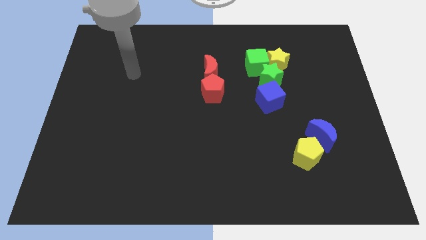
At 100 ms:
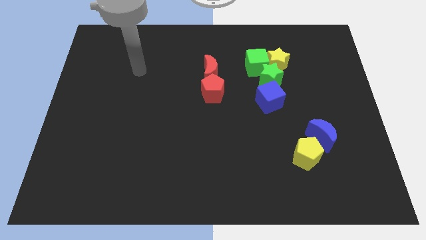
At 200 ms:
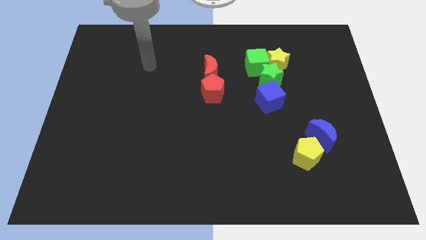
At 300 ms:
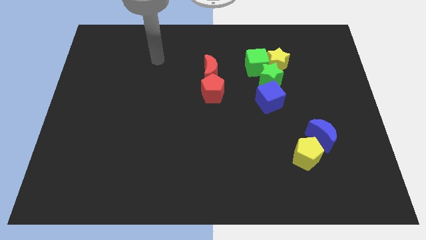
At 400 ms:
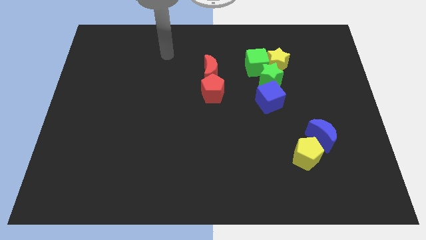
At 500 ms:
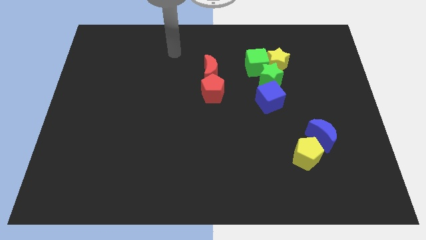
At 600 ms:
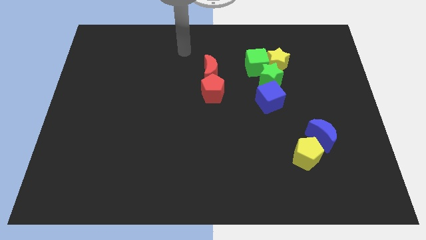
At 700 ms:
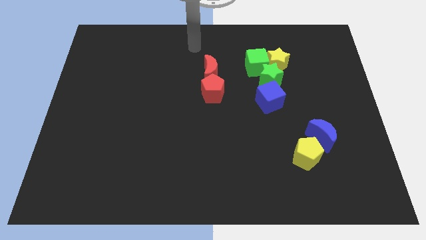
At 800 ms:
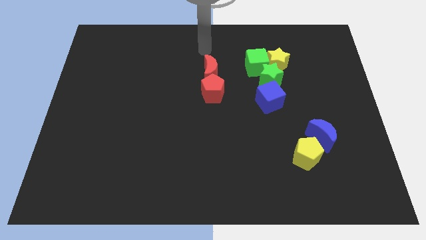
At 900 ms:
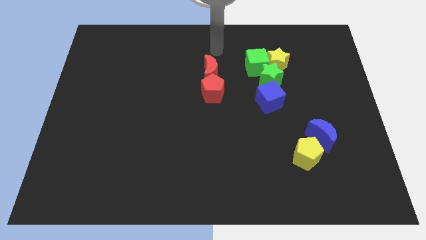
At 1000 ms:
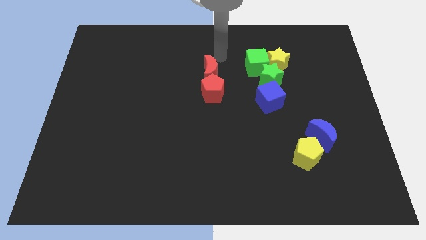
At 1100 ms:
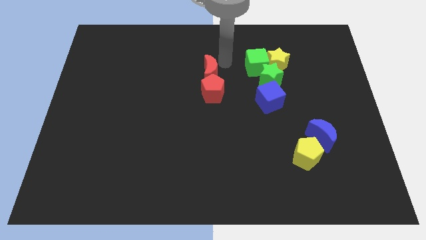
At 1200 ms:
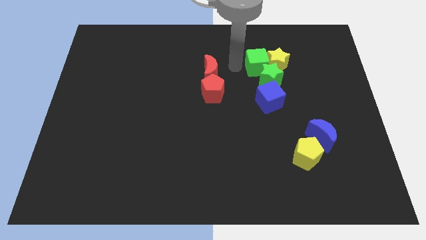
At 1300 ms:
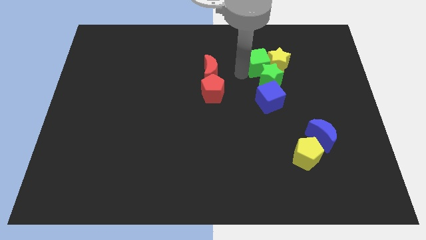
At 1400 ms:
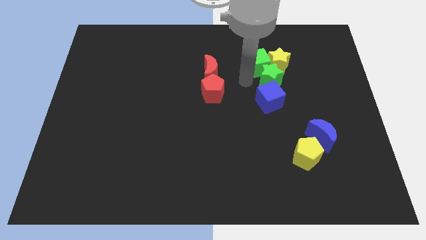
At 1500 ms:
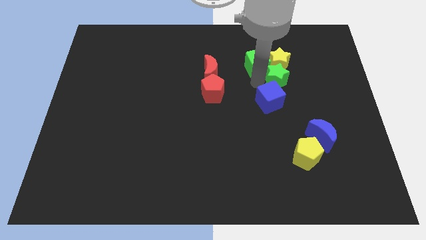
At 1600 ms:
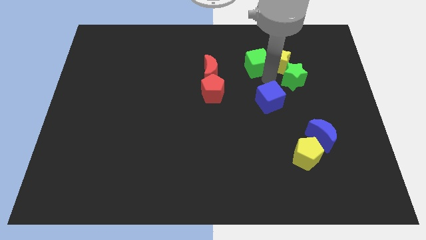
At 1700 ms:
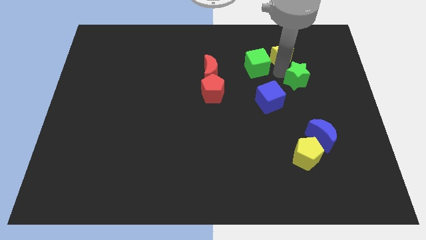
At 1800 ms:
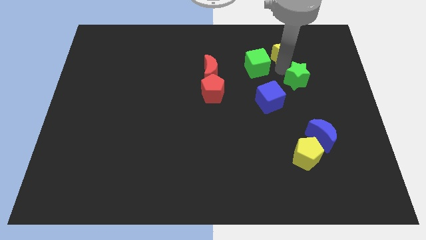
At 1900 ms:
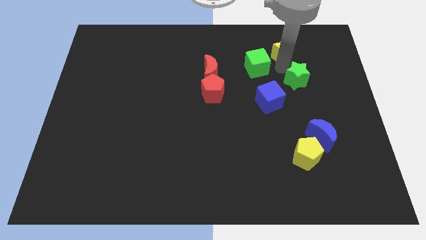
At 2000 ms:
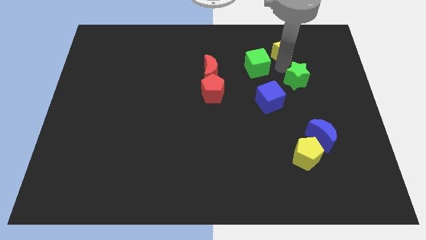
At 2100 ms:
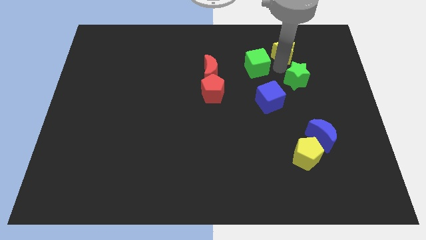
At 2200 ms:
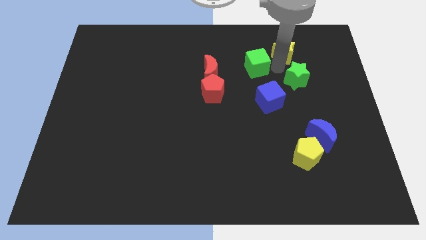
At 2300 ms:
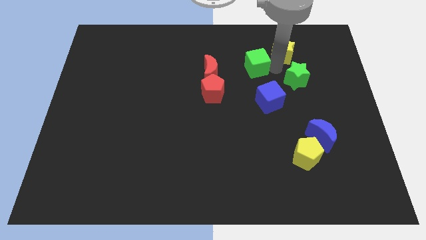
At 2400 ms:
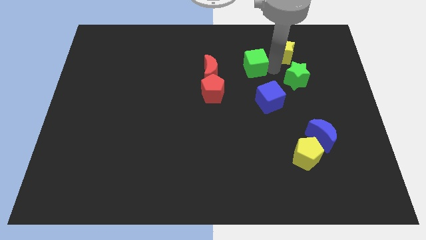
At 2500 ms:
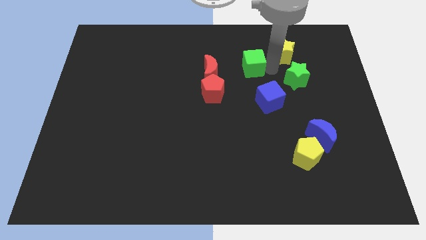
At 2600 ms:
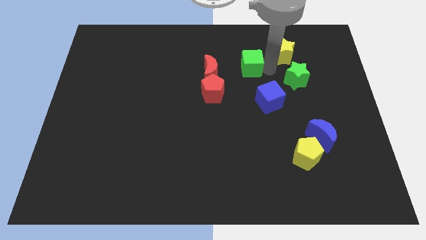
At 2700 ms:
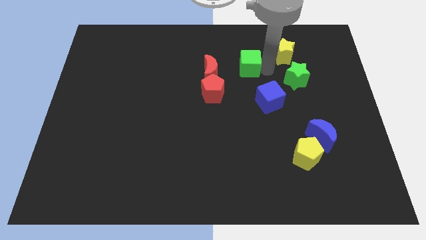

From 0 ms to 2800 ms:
pull the green cube apart from the yellow star and green star

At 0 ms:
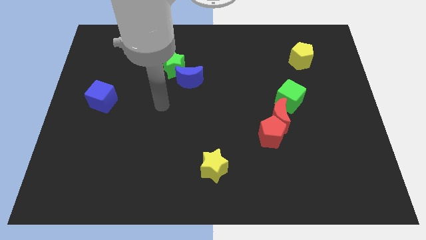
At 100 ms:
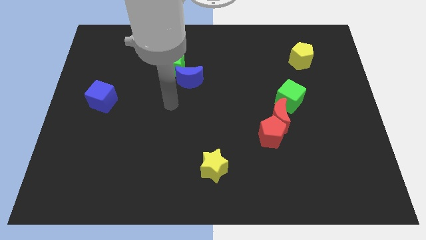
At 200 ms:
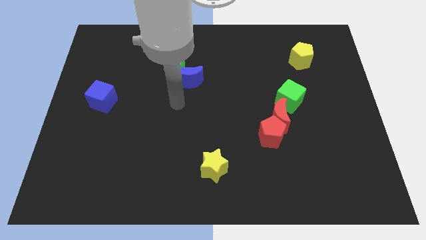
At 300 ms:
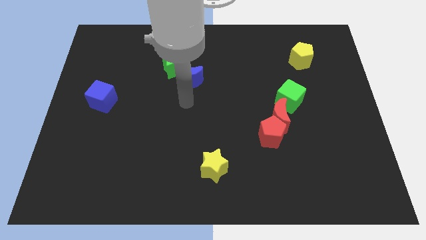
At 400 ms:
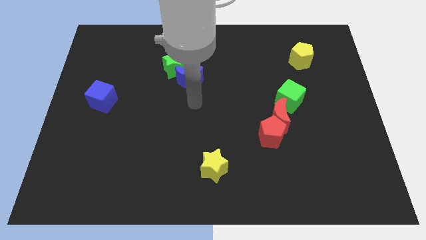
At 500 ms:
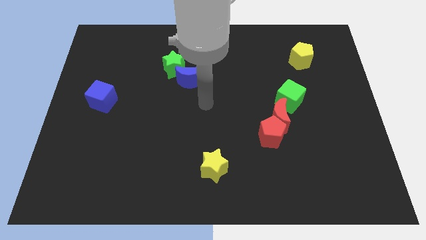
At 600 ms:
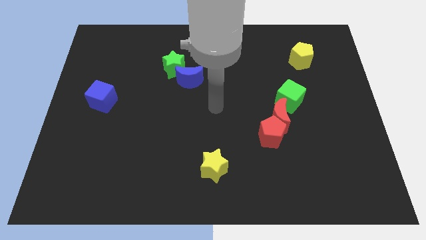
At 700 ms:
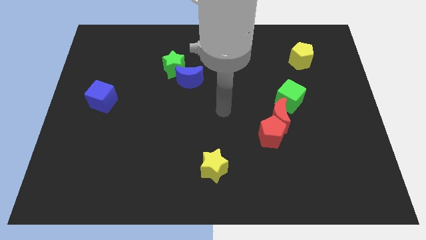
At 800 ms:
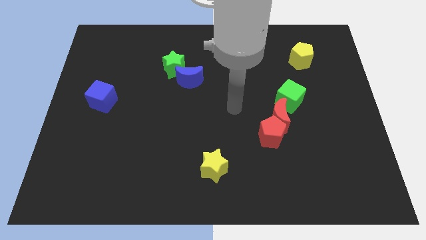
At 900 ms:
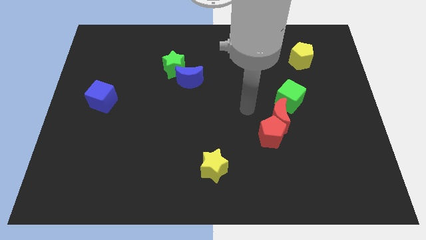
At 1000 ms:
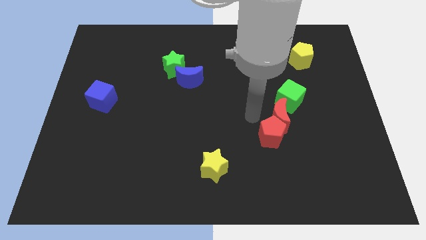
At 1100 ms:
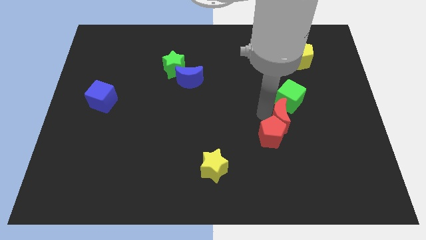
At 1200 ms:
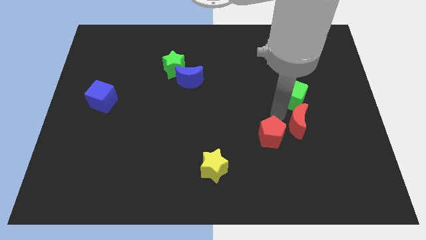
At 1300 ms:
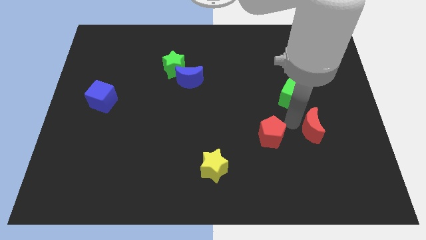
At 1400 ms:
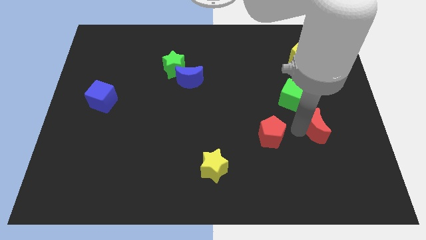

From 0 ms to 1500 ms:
move the red pentagon away from the red moon

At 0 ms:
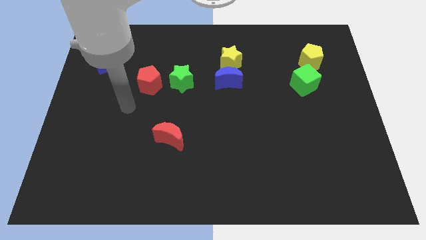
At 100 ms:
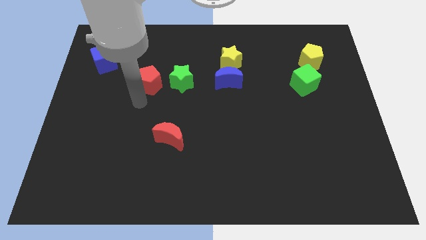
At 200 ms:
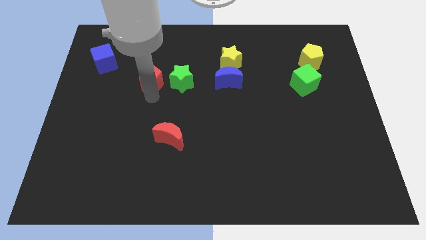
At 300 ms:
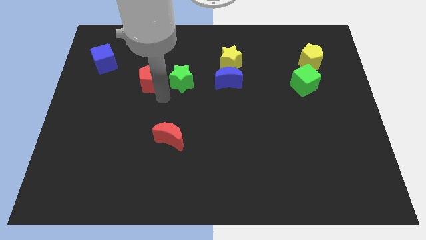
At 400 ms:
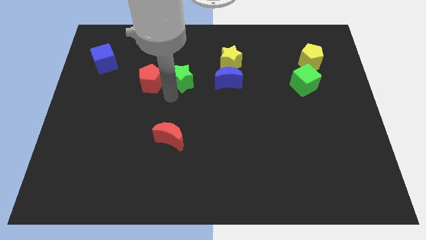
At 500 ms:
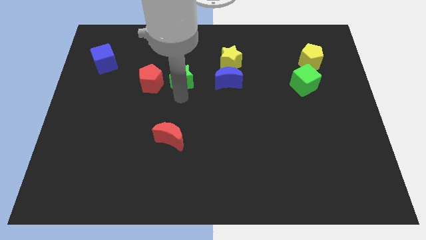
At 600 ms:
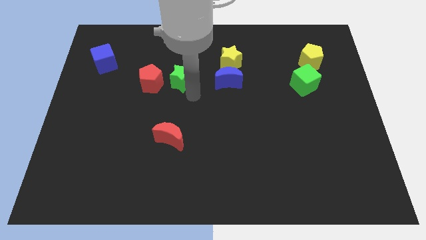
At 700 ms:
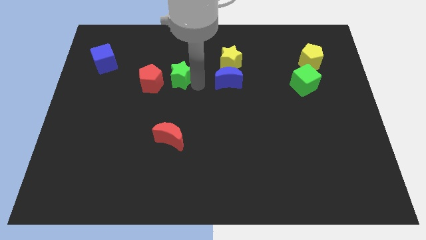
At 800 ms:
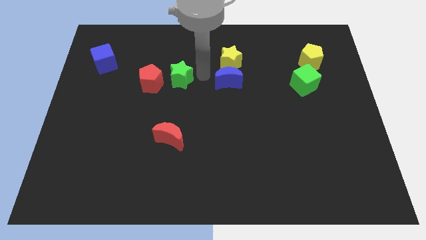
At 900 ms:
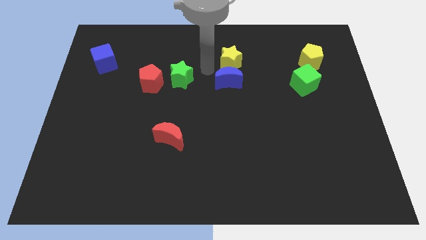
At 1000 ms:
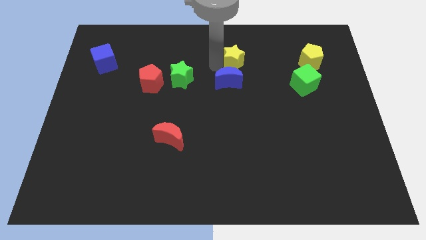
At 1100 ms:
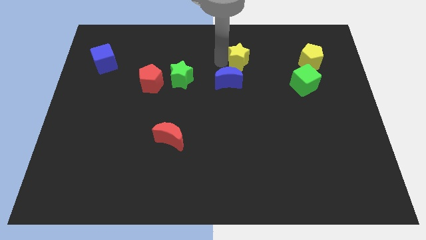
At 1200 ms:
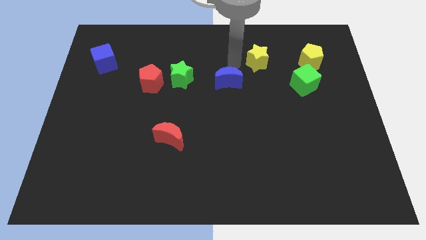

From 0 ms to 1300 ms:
move the blue moon away from the yellow star

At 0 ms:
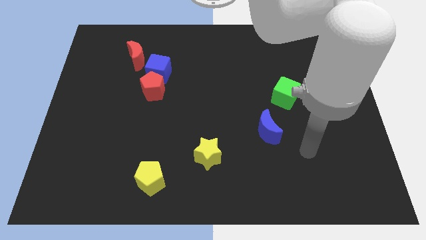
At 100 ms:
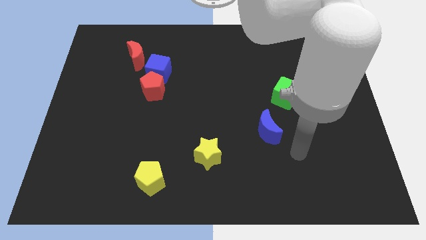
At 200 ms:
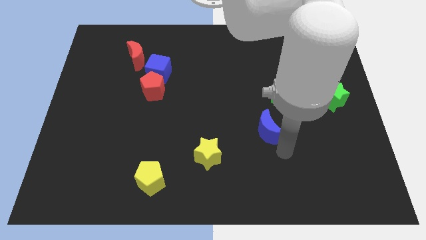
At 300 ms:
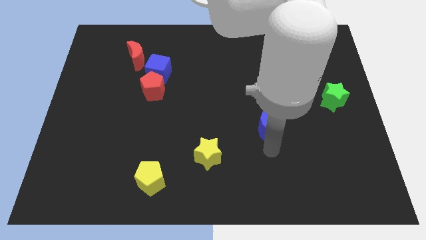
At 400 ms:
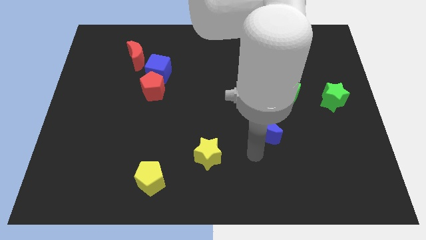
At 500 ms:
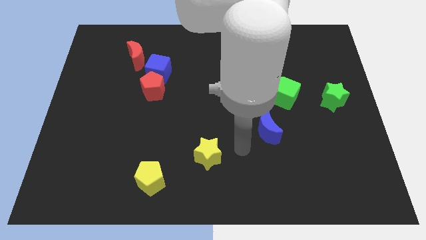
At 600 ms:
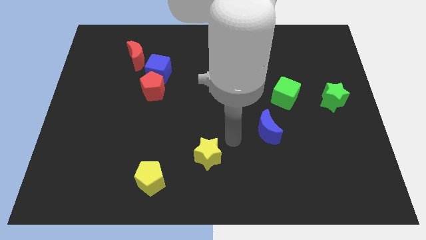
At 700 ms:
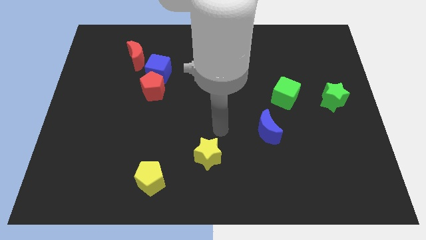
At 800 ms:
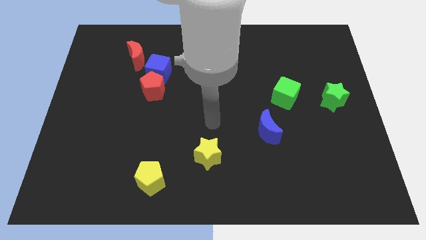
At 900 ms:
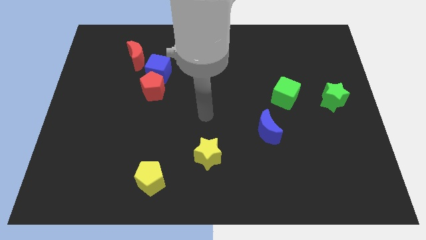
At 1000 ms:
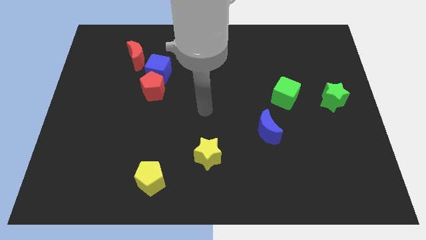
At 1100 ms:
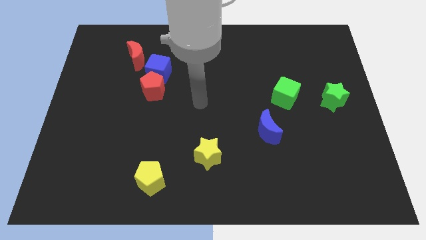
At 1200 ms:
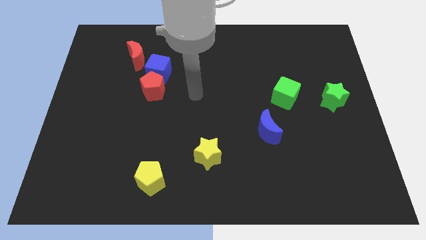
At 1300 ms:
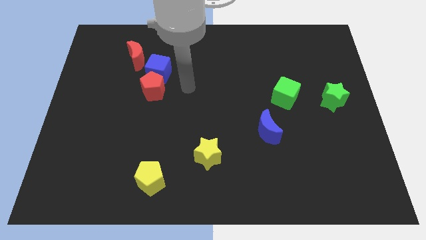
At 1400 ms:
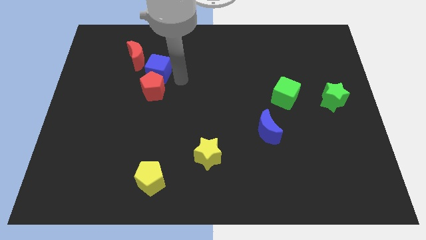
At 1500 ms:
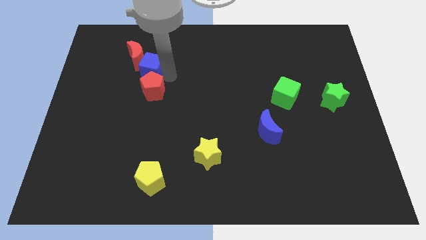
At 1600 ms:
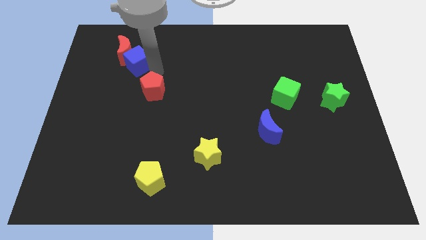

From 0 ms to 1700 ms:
separate the red pentagon from the blue cube

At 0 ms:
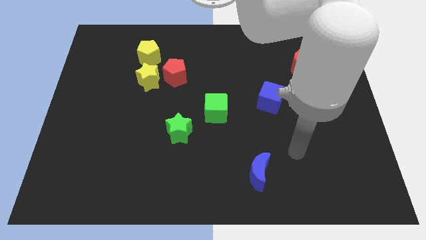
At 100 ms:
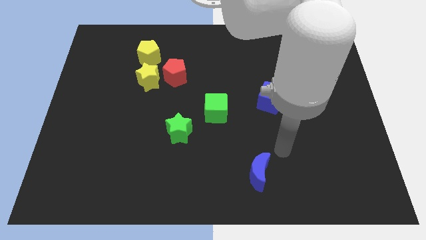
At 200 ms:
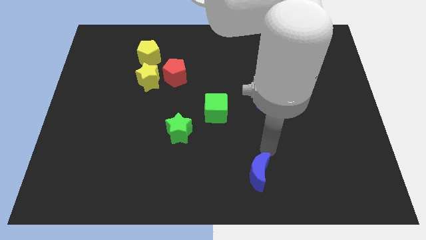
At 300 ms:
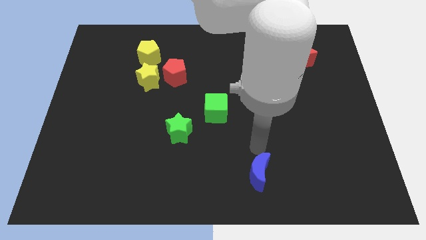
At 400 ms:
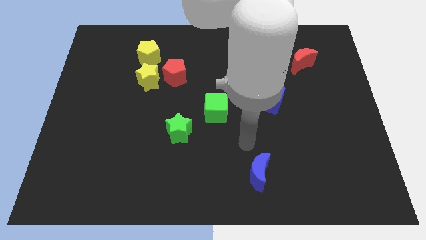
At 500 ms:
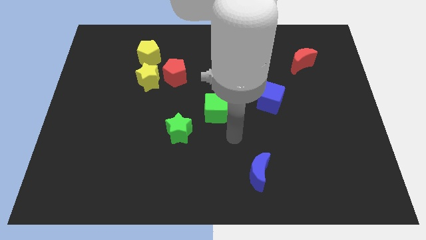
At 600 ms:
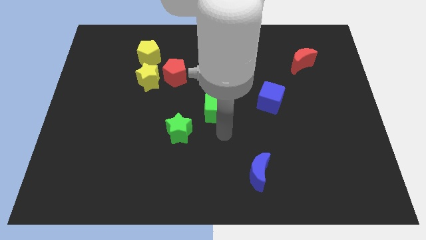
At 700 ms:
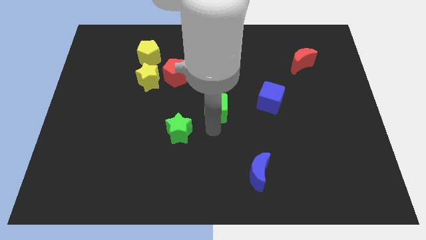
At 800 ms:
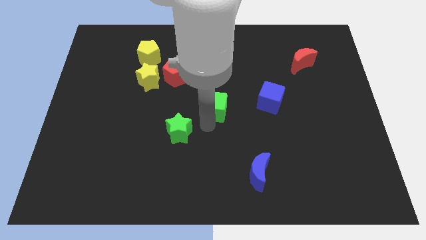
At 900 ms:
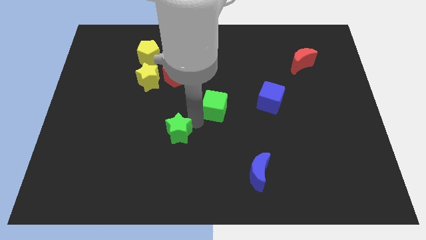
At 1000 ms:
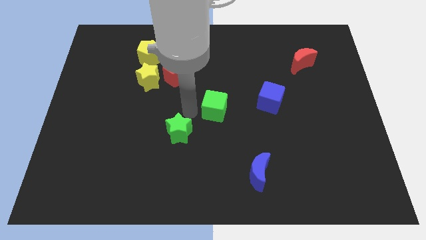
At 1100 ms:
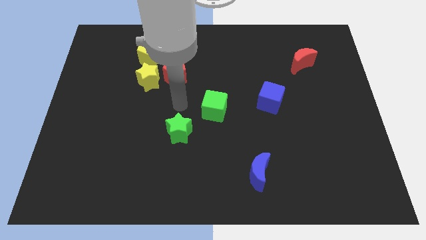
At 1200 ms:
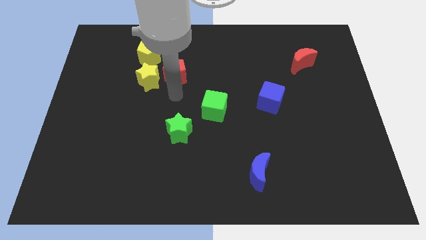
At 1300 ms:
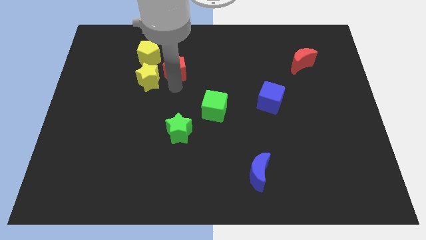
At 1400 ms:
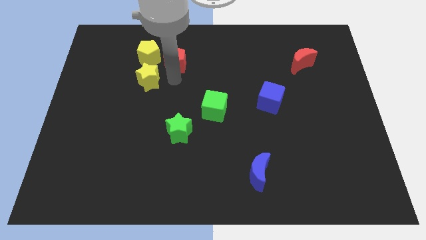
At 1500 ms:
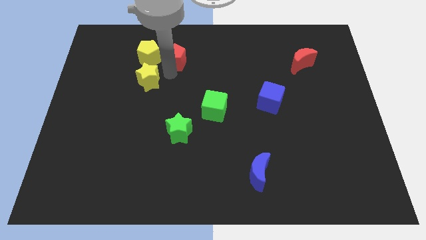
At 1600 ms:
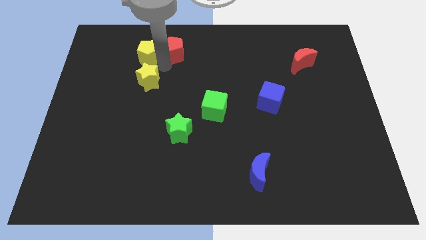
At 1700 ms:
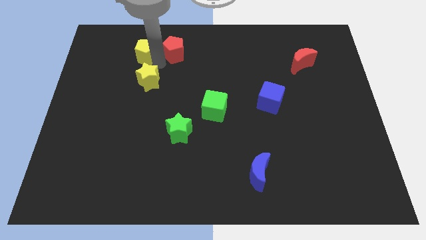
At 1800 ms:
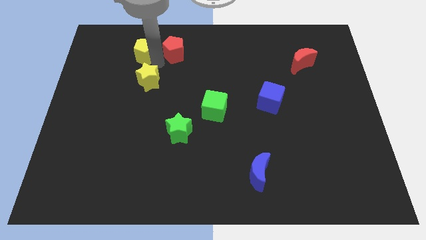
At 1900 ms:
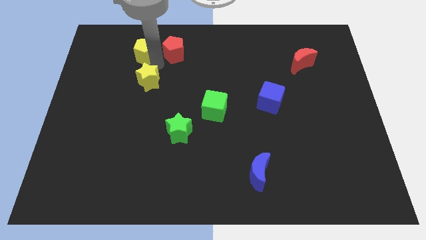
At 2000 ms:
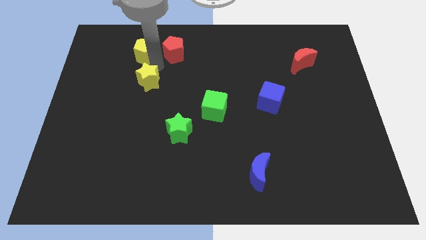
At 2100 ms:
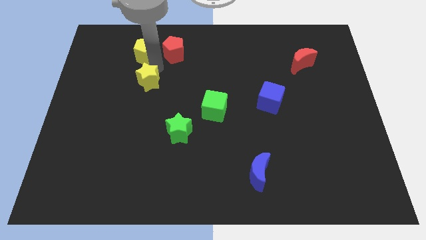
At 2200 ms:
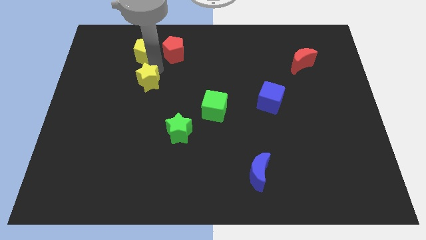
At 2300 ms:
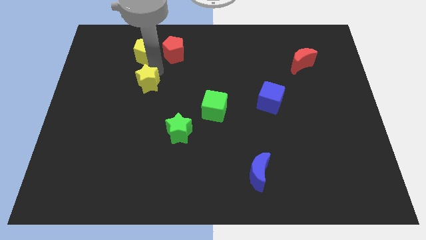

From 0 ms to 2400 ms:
pull the yellow star apart from the red pentagon and yellow pentagon
